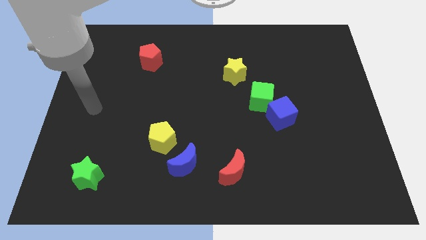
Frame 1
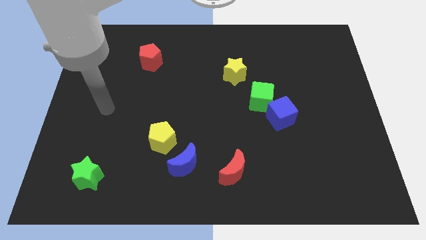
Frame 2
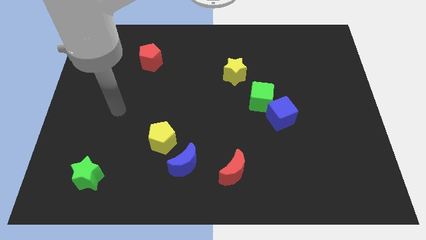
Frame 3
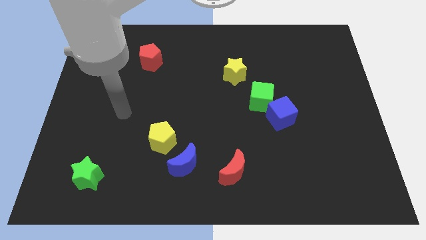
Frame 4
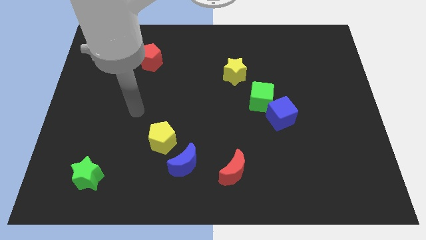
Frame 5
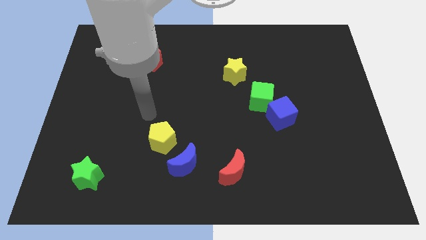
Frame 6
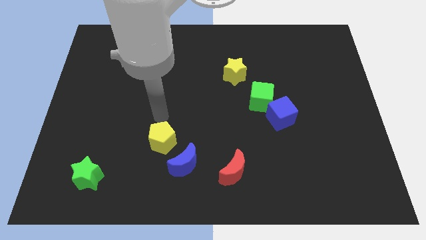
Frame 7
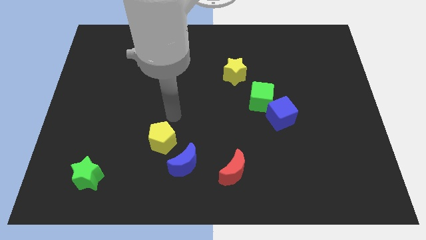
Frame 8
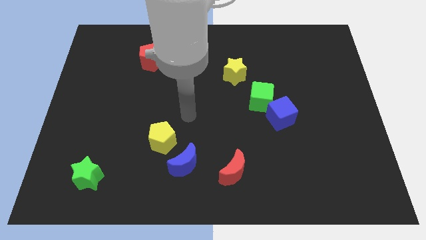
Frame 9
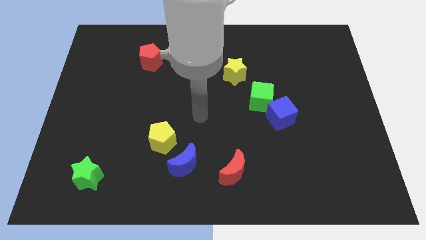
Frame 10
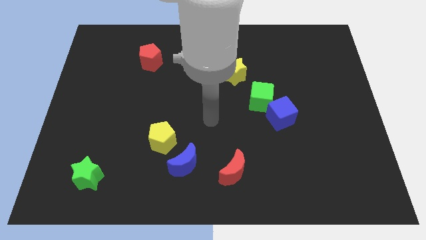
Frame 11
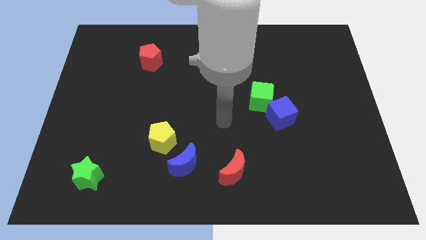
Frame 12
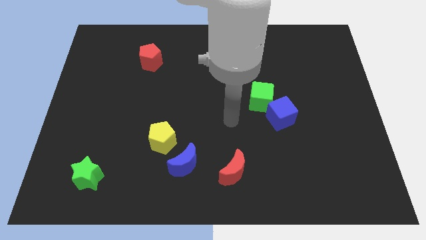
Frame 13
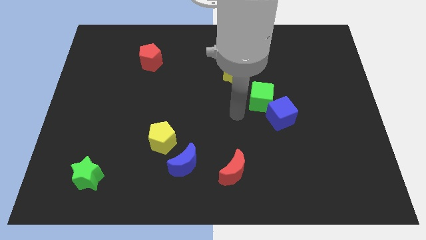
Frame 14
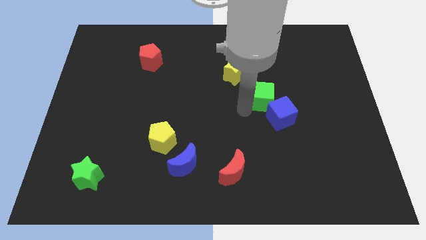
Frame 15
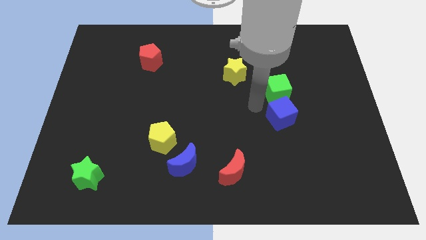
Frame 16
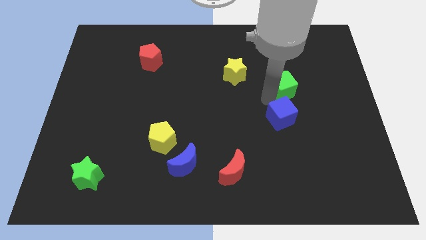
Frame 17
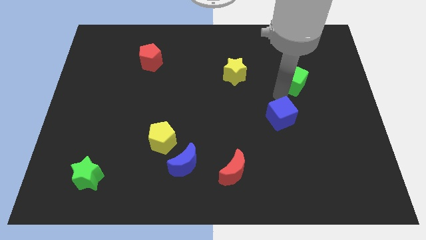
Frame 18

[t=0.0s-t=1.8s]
separate the blue cube from the green cube

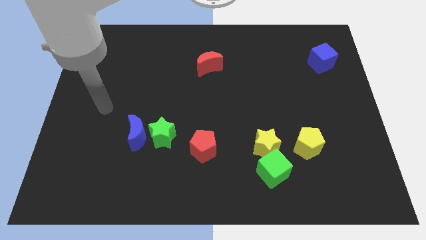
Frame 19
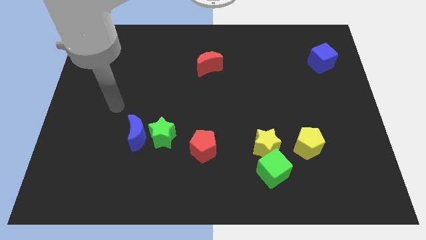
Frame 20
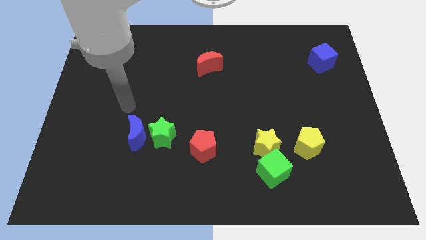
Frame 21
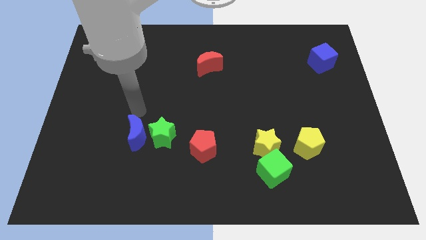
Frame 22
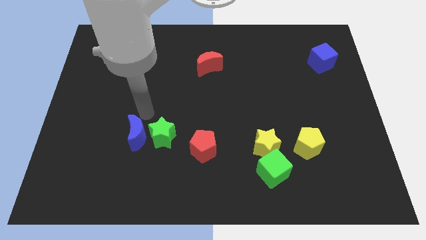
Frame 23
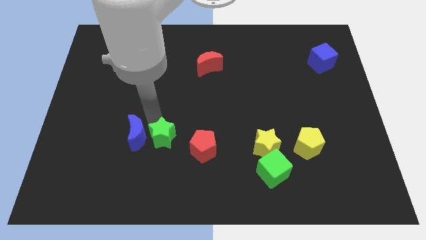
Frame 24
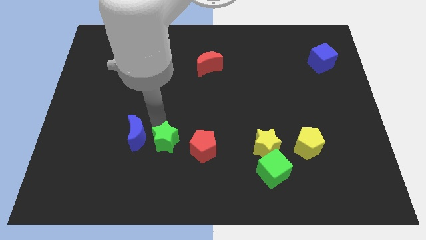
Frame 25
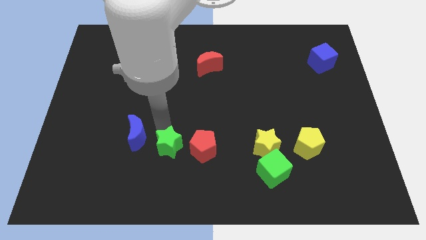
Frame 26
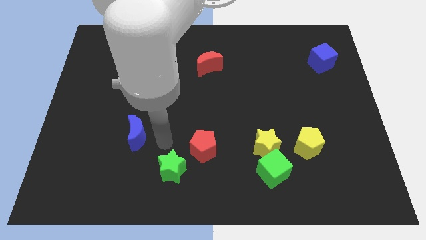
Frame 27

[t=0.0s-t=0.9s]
move the blue moon away from the green star

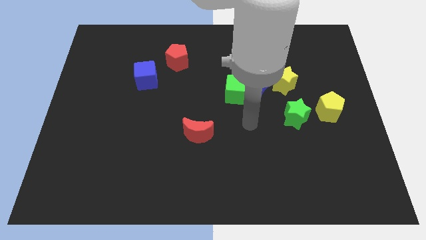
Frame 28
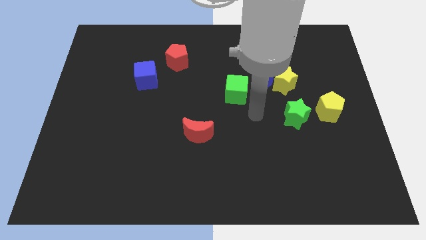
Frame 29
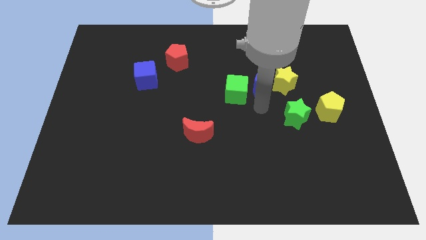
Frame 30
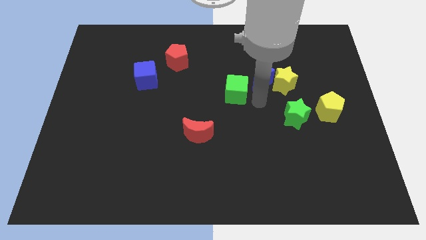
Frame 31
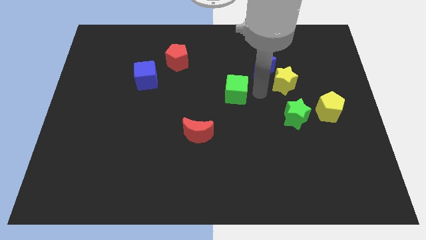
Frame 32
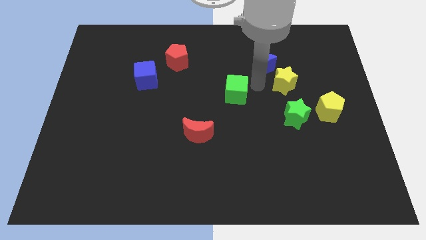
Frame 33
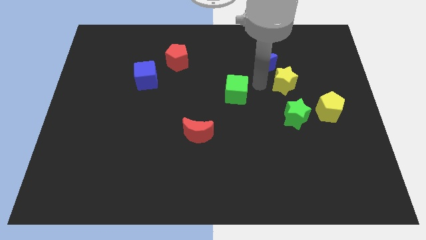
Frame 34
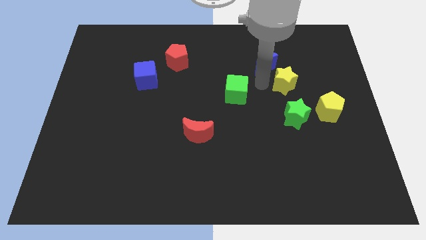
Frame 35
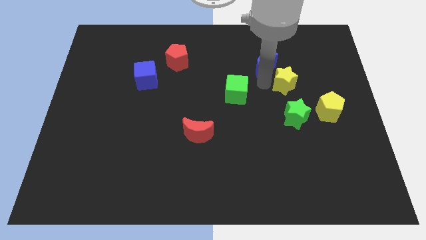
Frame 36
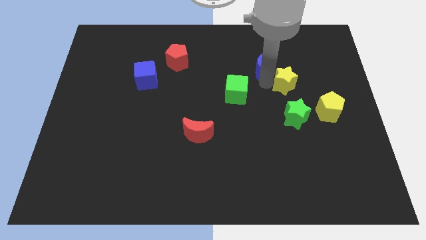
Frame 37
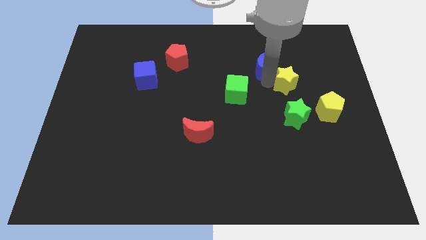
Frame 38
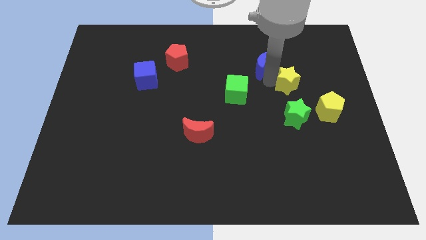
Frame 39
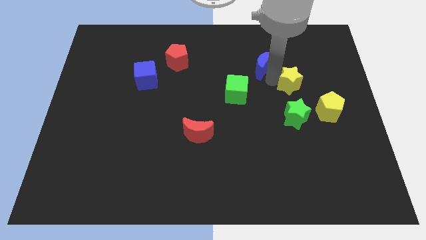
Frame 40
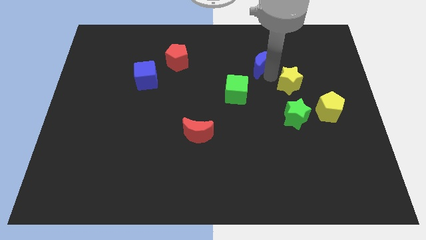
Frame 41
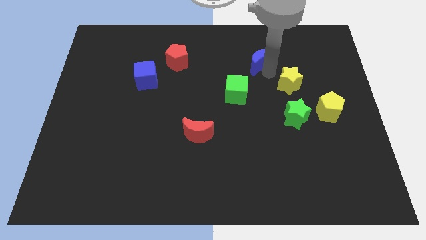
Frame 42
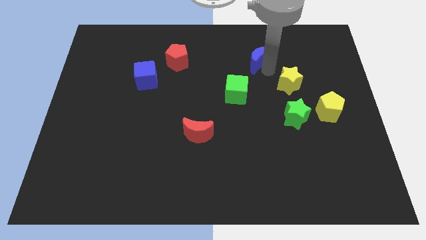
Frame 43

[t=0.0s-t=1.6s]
pull the yellow star apart from the blue moon

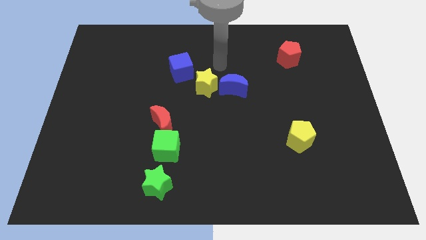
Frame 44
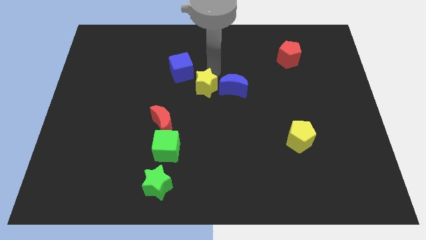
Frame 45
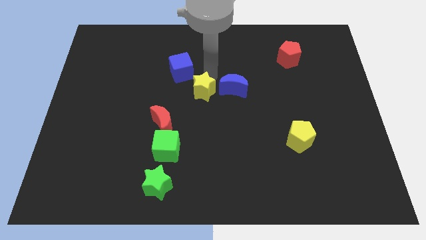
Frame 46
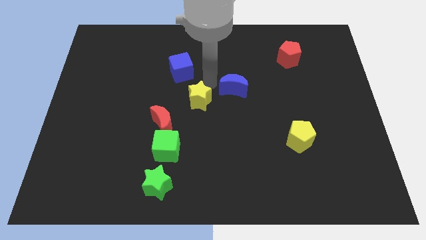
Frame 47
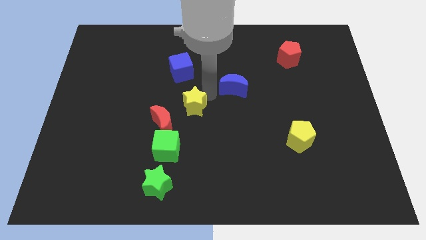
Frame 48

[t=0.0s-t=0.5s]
move the blue moon away from the yellow star

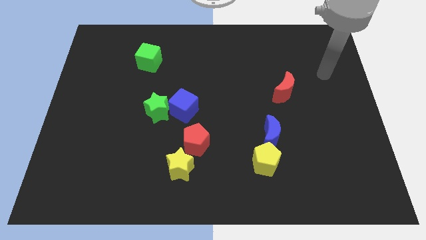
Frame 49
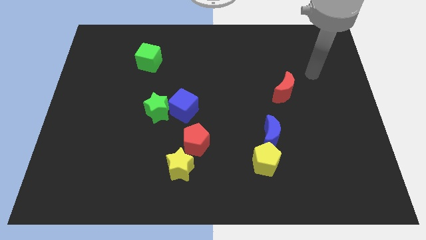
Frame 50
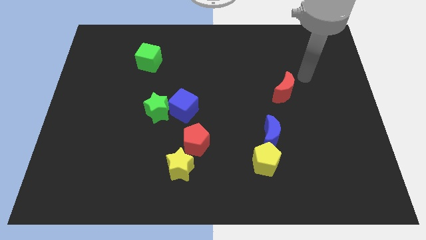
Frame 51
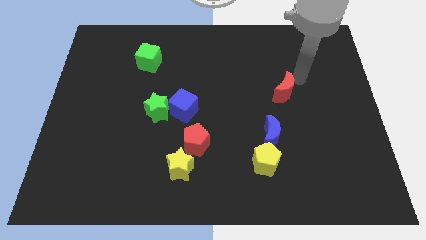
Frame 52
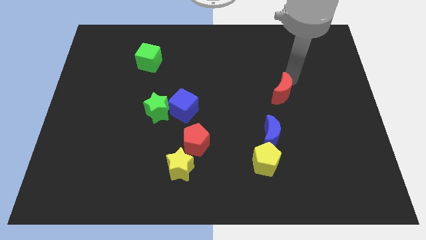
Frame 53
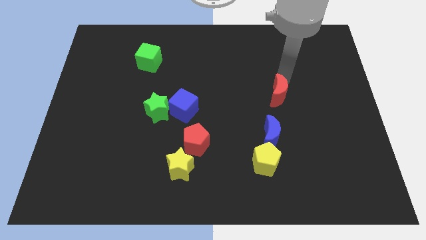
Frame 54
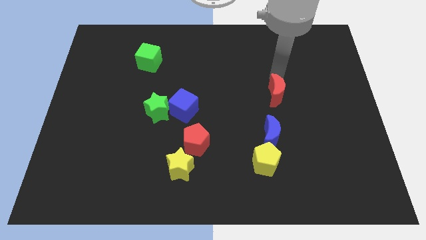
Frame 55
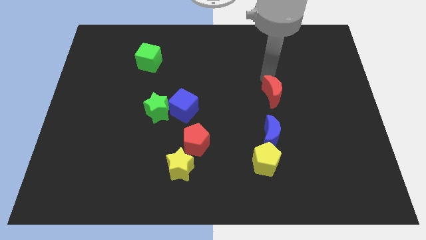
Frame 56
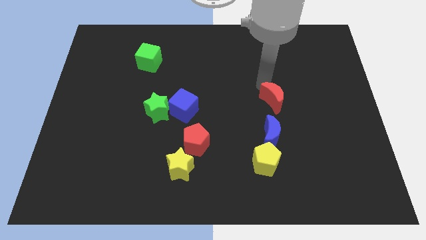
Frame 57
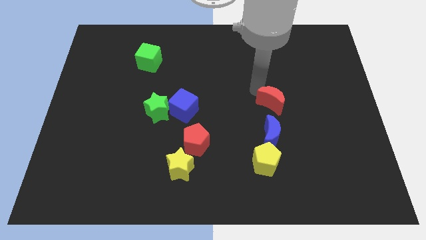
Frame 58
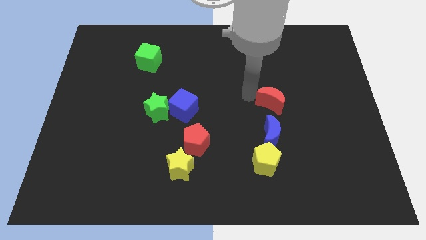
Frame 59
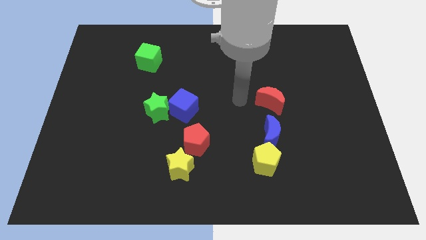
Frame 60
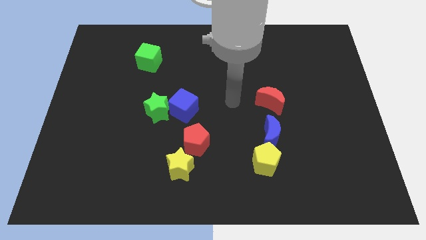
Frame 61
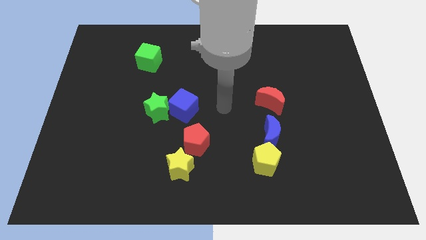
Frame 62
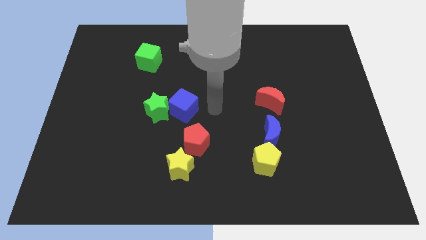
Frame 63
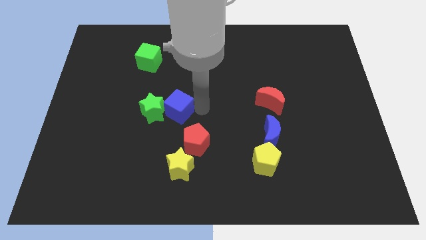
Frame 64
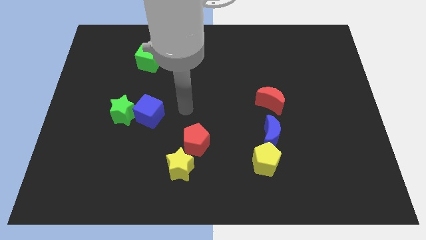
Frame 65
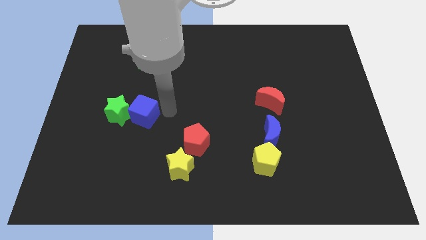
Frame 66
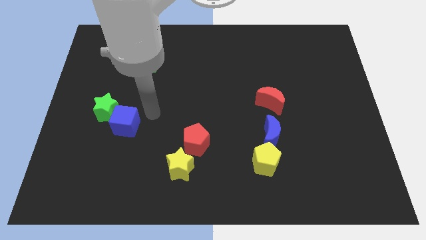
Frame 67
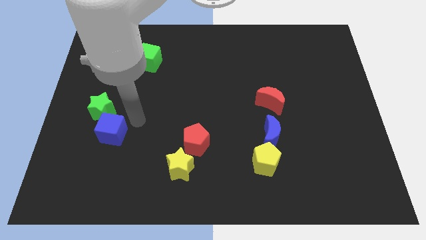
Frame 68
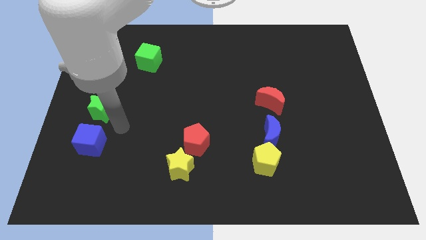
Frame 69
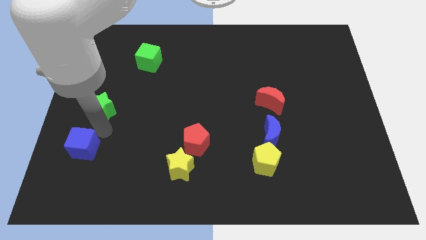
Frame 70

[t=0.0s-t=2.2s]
move the green star away from the blue cube

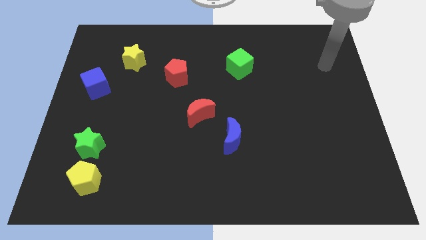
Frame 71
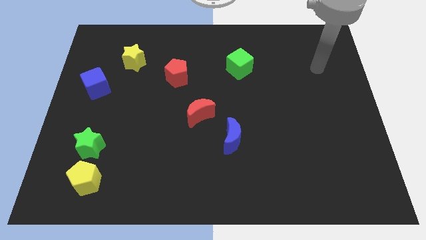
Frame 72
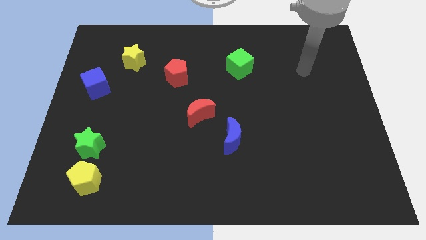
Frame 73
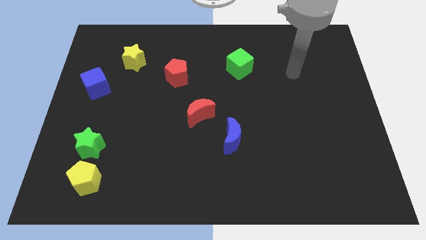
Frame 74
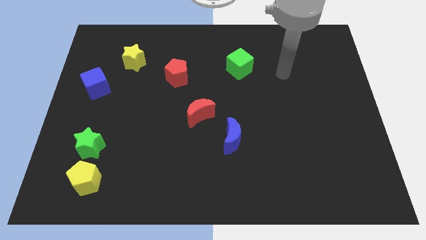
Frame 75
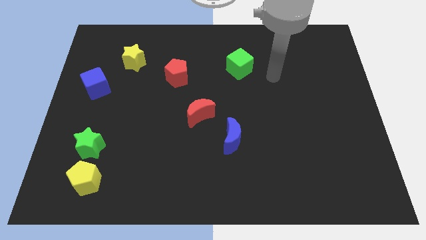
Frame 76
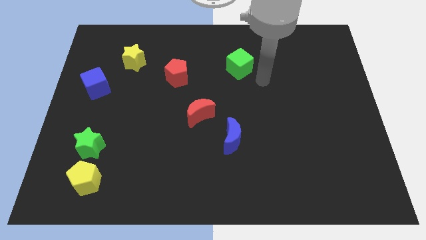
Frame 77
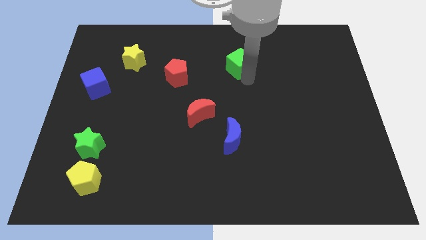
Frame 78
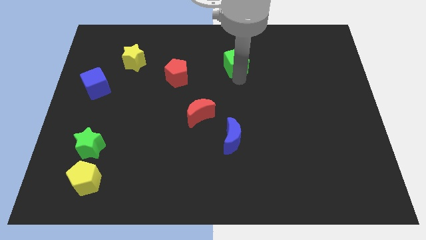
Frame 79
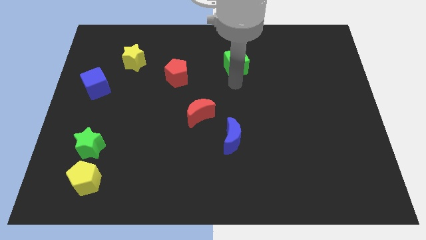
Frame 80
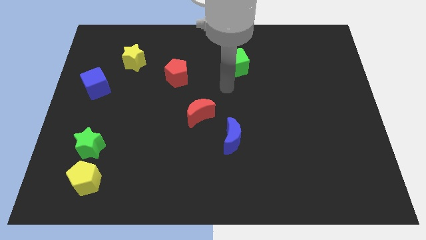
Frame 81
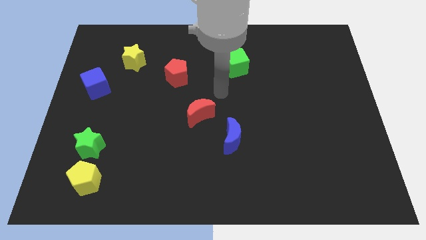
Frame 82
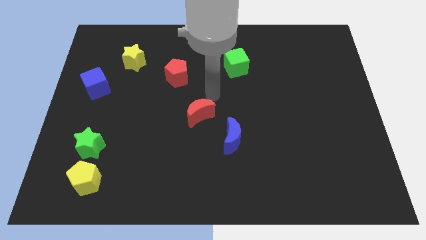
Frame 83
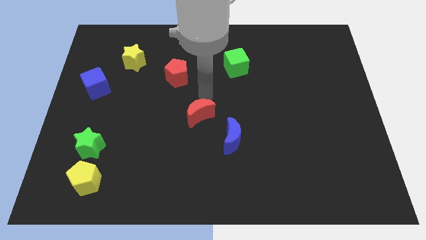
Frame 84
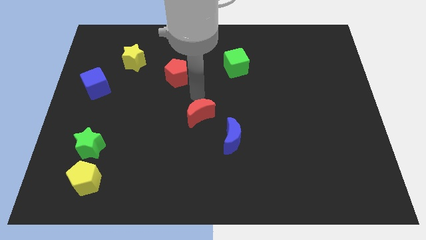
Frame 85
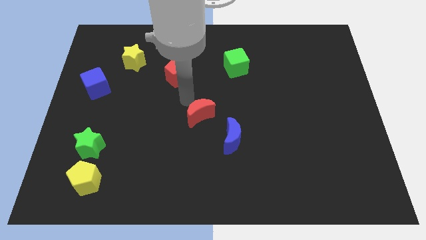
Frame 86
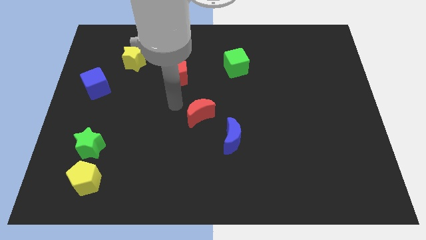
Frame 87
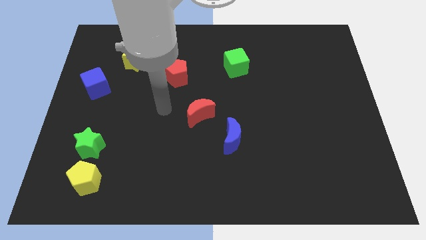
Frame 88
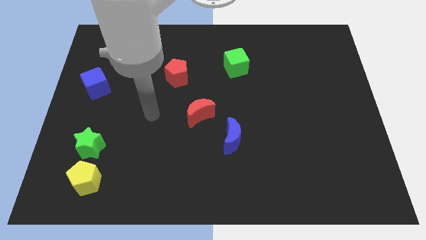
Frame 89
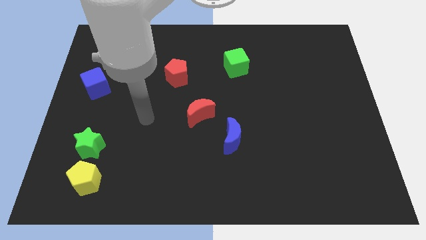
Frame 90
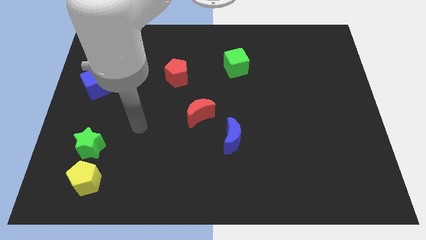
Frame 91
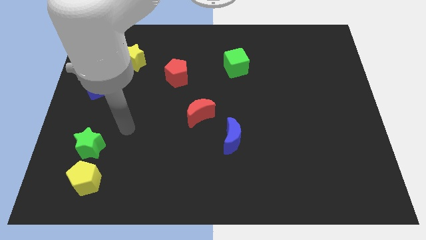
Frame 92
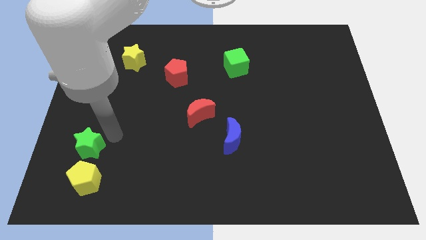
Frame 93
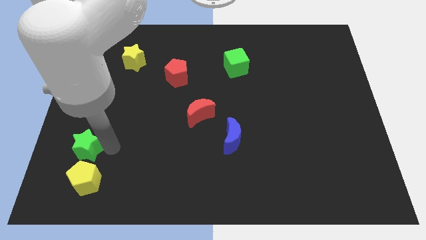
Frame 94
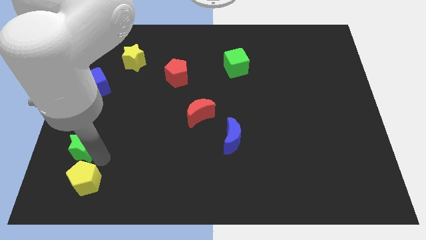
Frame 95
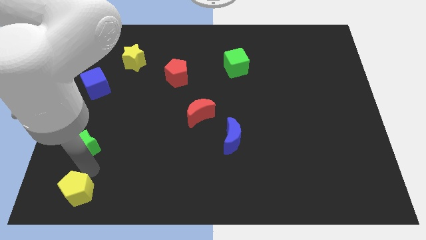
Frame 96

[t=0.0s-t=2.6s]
separate the green star from the yellow pentagon
